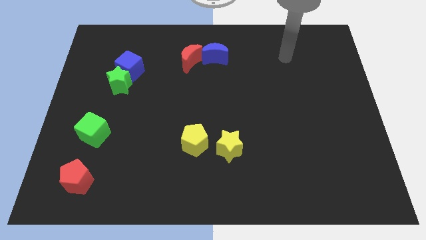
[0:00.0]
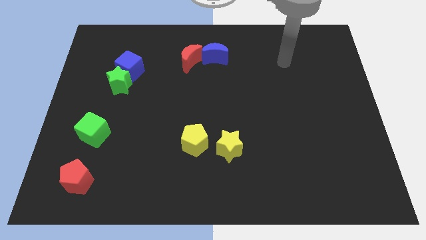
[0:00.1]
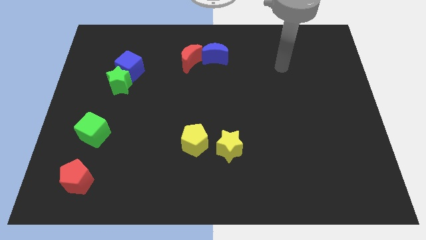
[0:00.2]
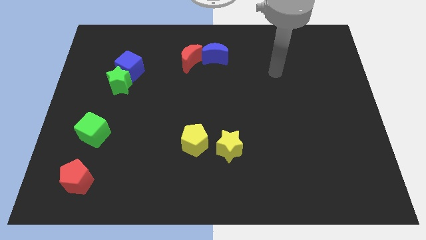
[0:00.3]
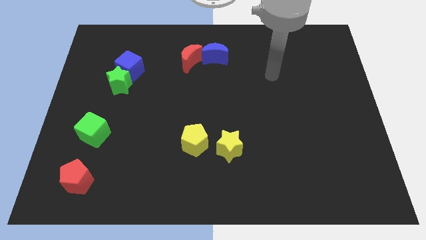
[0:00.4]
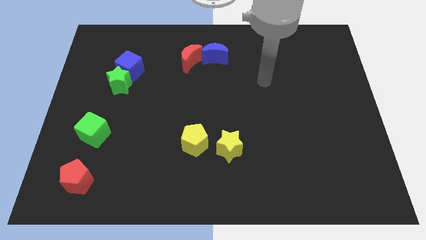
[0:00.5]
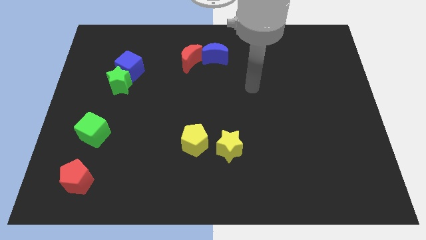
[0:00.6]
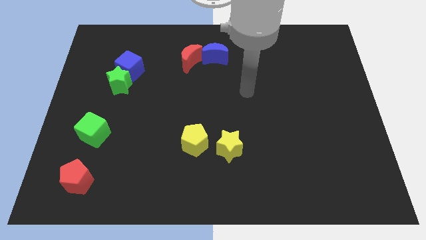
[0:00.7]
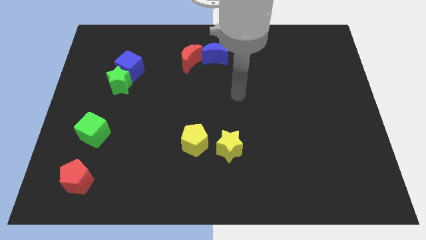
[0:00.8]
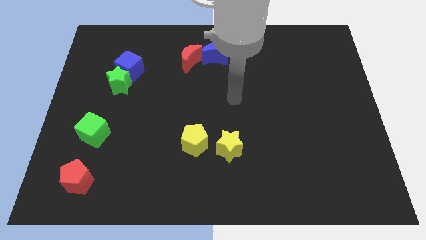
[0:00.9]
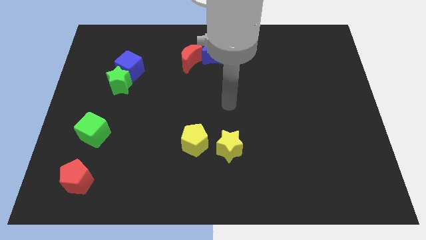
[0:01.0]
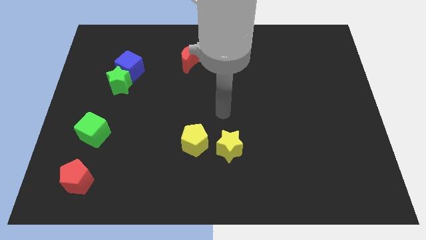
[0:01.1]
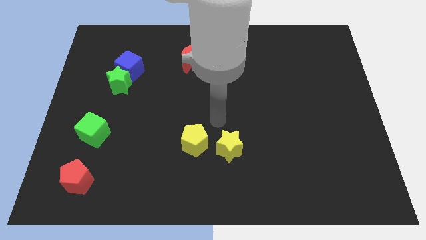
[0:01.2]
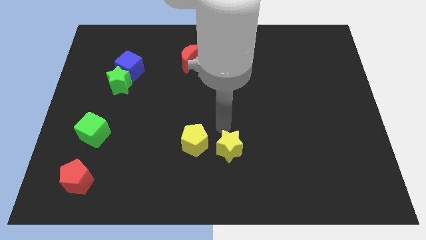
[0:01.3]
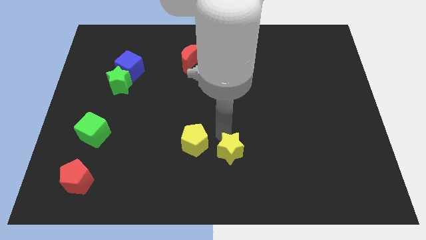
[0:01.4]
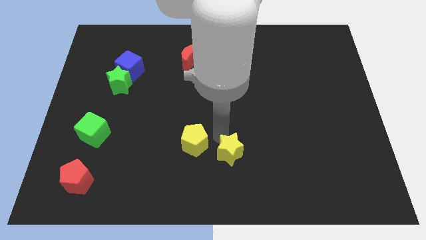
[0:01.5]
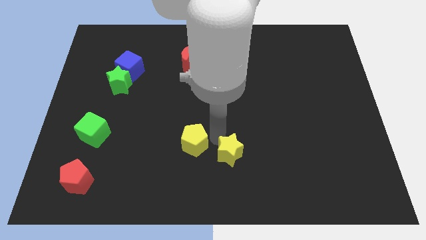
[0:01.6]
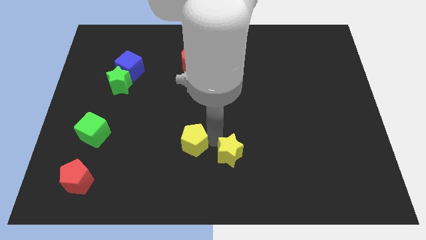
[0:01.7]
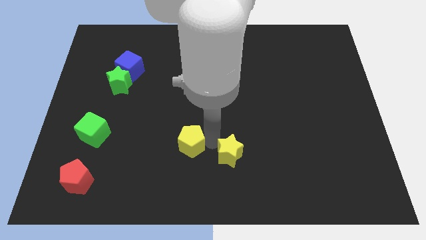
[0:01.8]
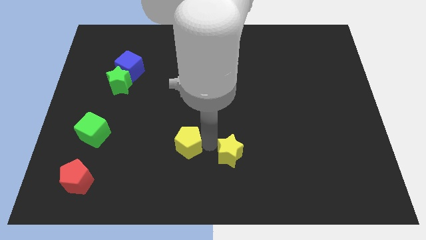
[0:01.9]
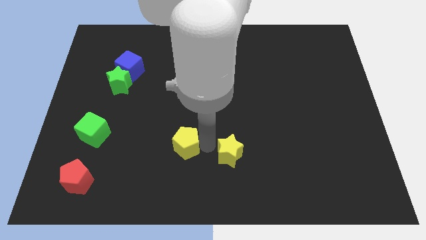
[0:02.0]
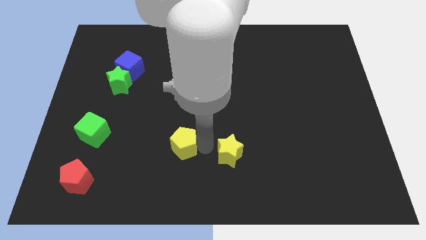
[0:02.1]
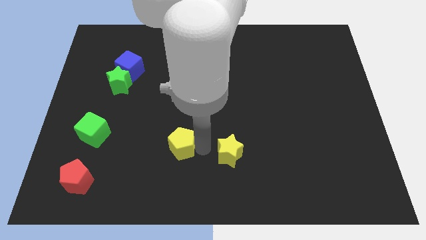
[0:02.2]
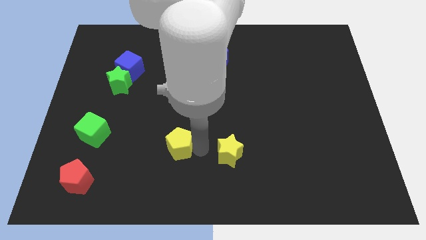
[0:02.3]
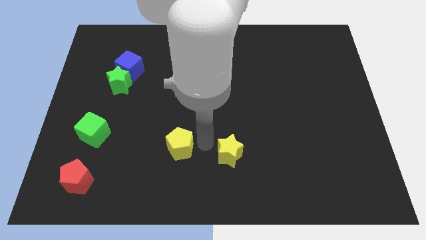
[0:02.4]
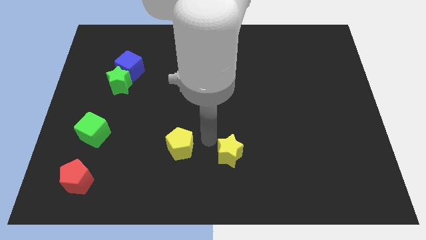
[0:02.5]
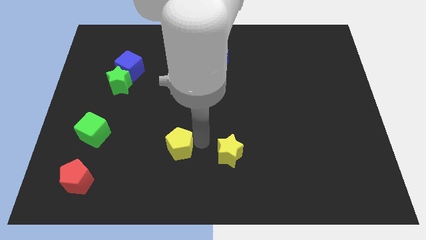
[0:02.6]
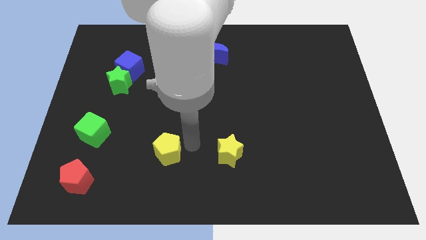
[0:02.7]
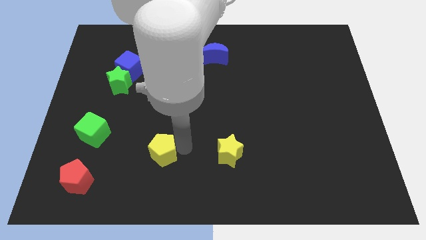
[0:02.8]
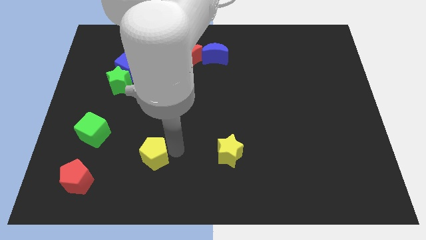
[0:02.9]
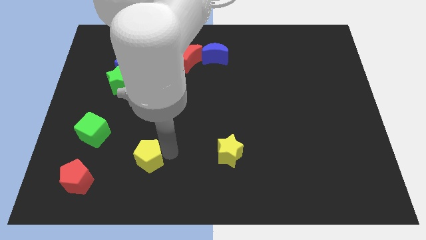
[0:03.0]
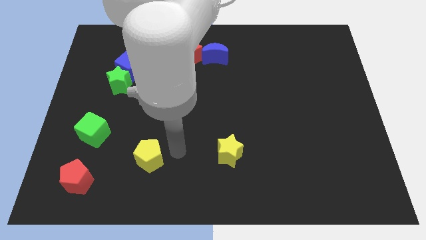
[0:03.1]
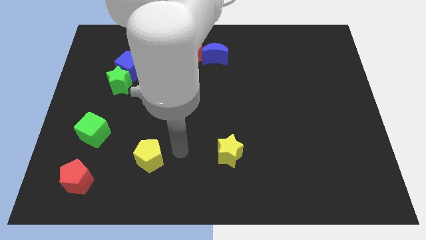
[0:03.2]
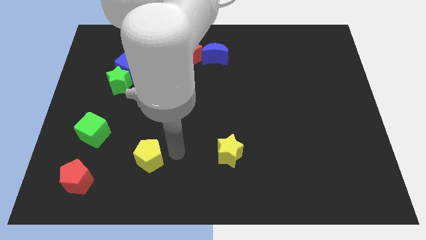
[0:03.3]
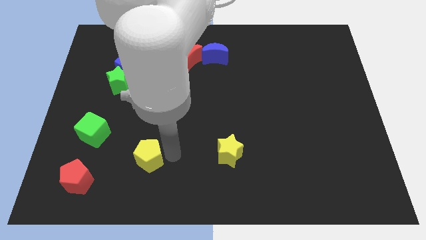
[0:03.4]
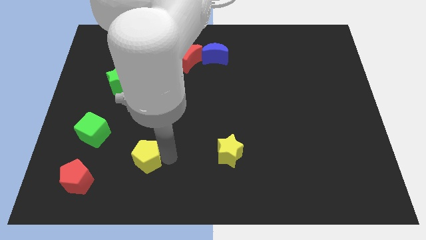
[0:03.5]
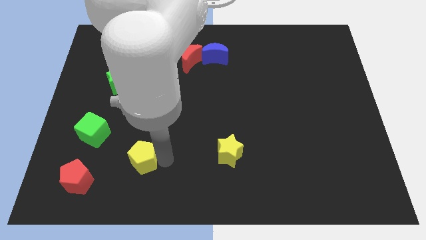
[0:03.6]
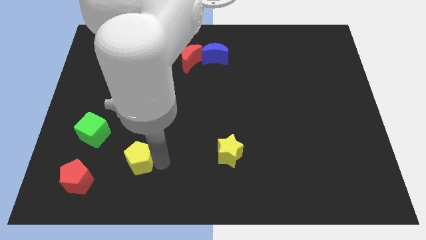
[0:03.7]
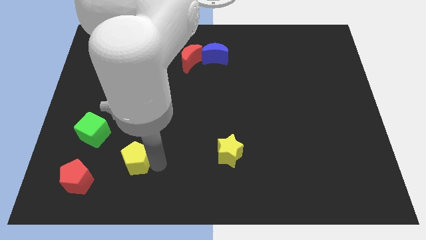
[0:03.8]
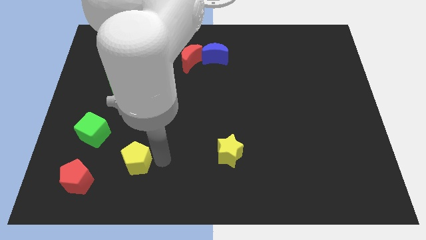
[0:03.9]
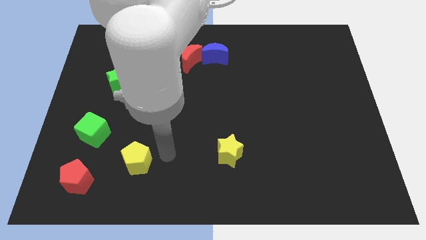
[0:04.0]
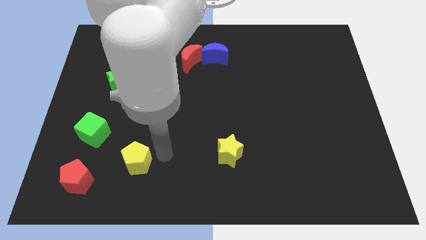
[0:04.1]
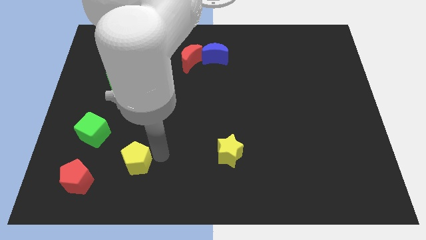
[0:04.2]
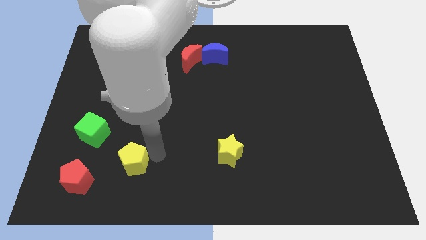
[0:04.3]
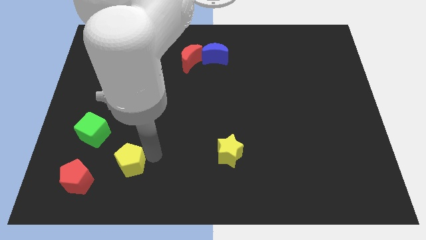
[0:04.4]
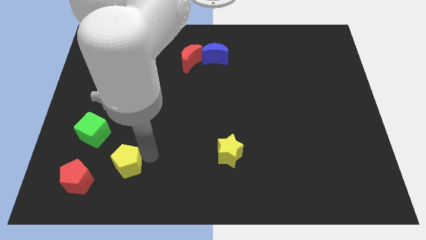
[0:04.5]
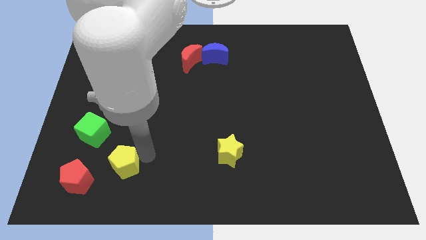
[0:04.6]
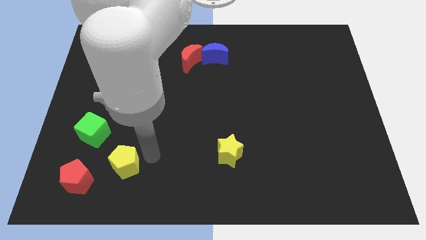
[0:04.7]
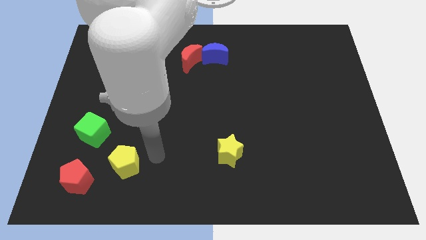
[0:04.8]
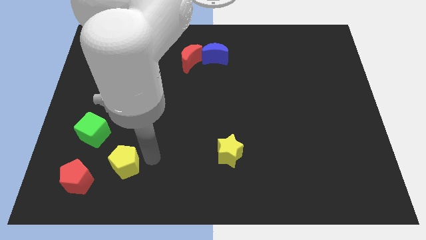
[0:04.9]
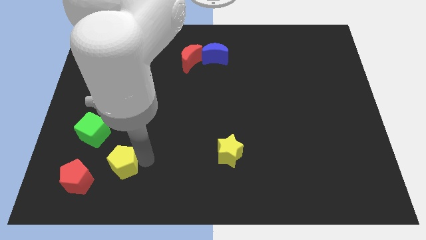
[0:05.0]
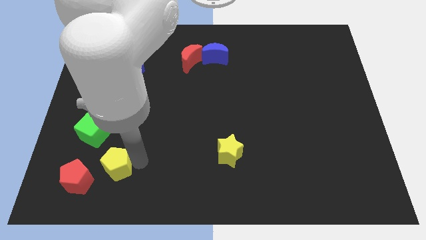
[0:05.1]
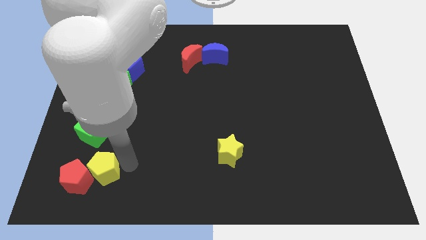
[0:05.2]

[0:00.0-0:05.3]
push the yellow pentagon to the red pentagon

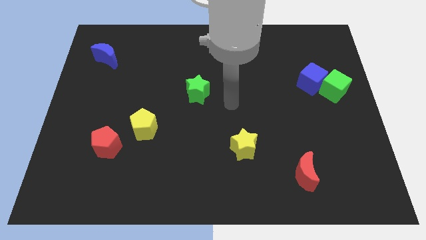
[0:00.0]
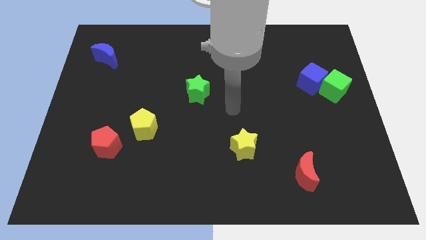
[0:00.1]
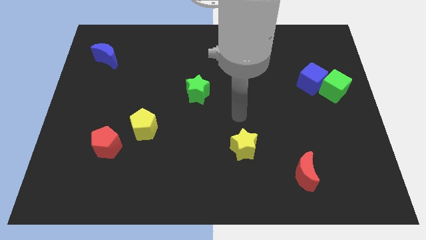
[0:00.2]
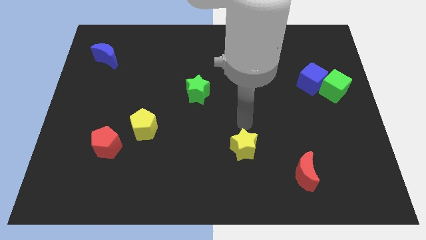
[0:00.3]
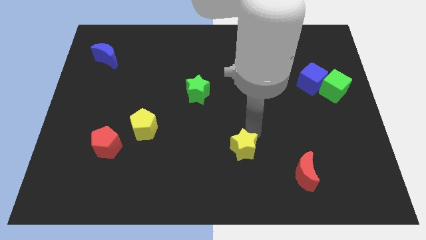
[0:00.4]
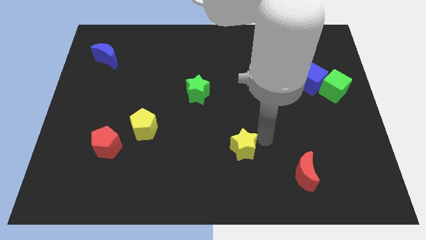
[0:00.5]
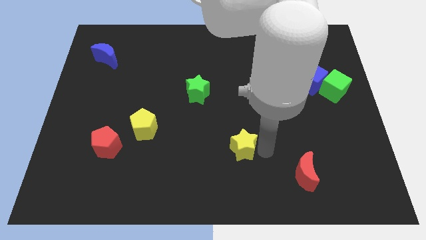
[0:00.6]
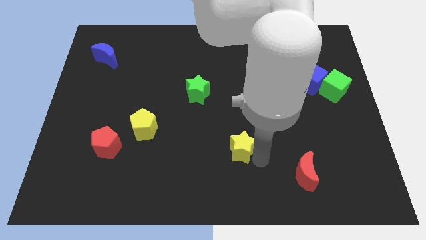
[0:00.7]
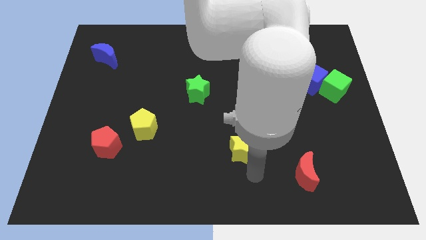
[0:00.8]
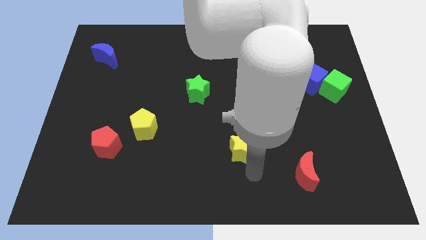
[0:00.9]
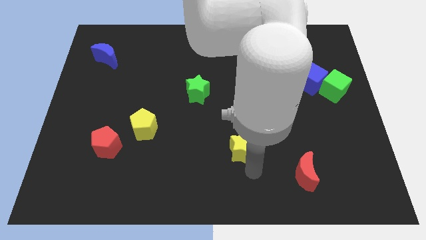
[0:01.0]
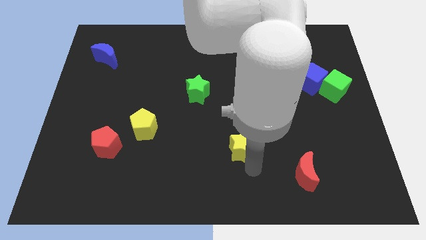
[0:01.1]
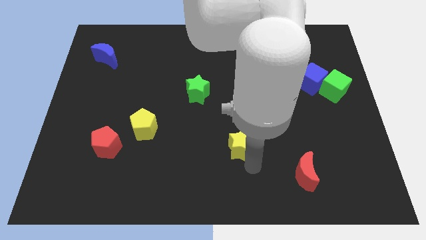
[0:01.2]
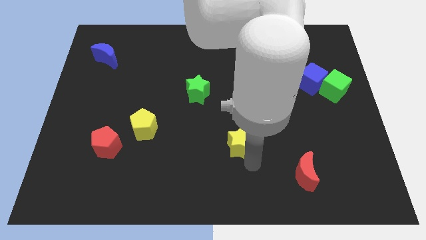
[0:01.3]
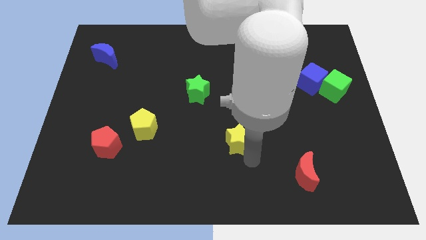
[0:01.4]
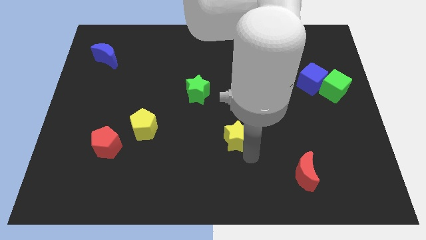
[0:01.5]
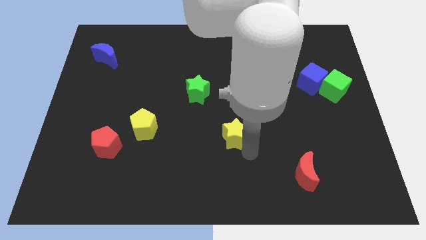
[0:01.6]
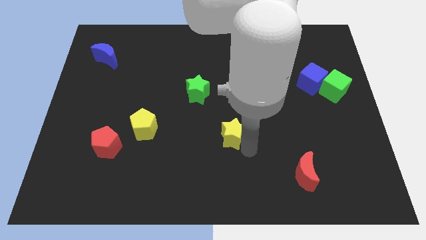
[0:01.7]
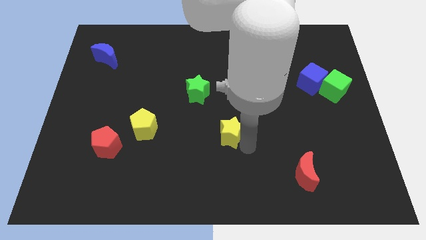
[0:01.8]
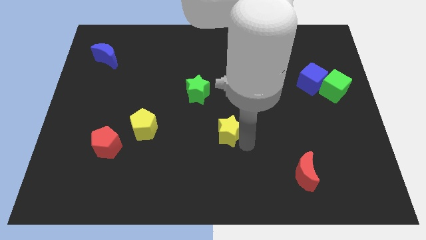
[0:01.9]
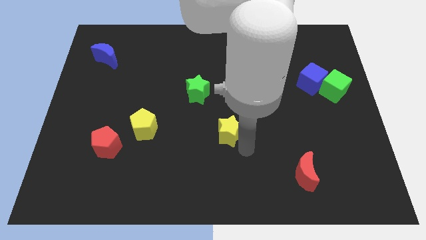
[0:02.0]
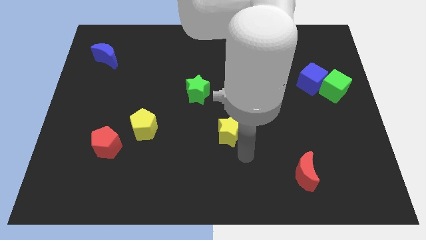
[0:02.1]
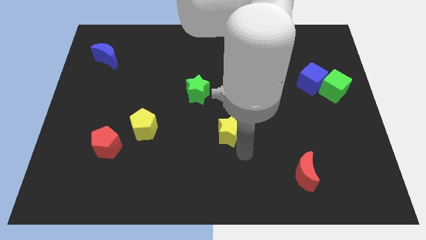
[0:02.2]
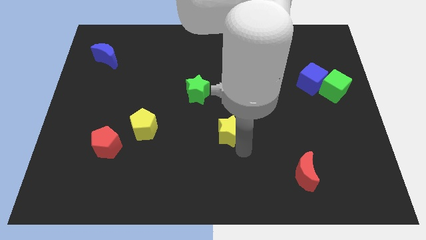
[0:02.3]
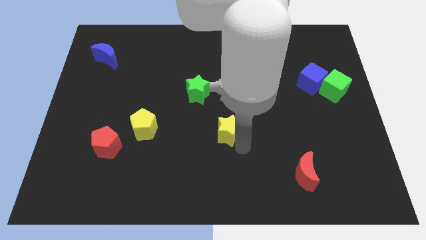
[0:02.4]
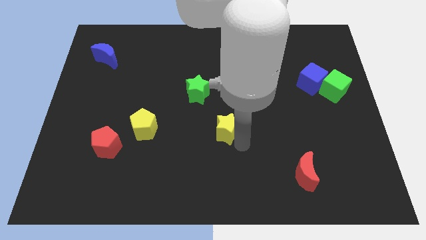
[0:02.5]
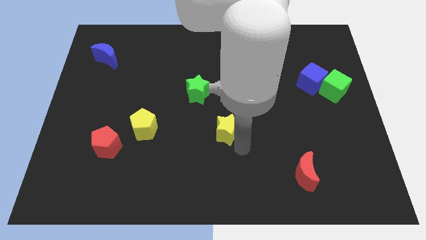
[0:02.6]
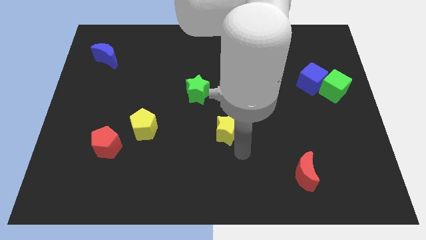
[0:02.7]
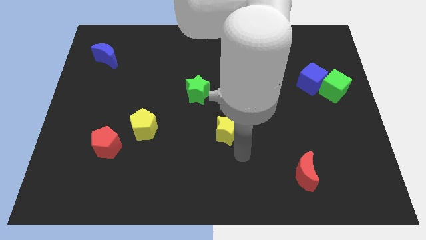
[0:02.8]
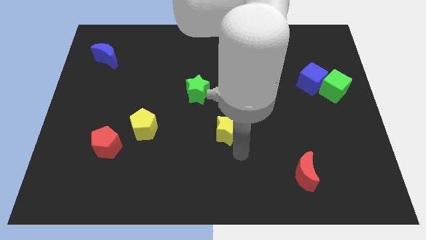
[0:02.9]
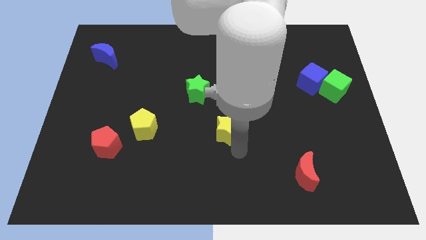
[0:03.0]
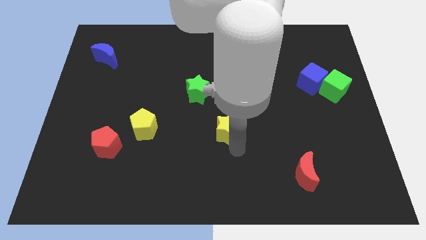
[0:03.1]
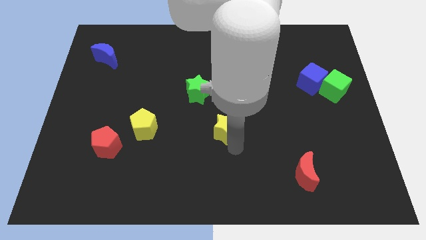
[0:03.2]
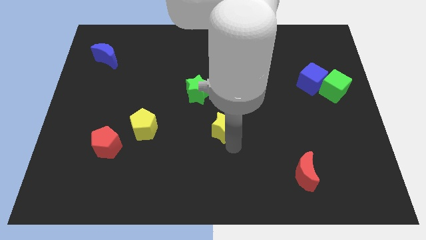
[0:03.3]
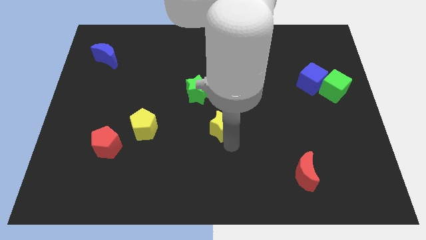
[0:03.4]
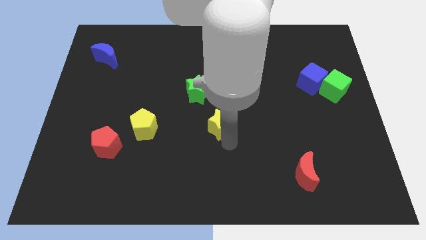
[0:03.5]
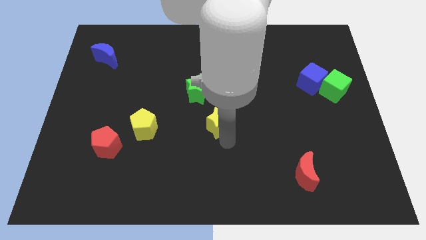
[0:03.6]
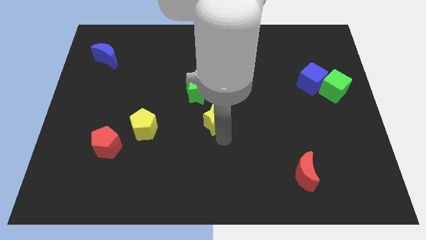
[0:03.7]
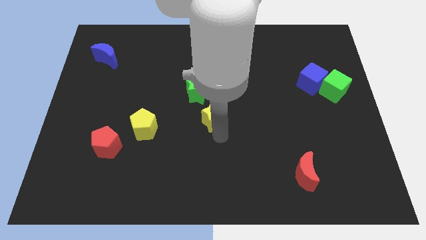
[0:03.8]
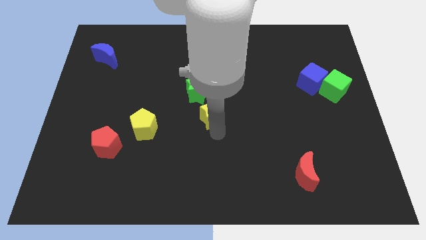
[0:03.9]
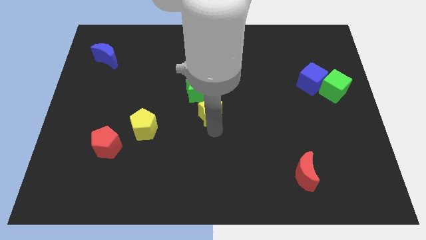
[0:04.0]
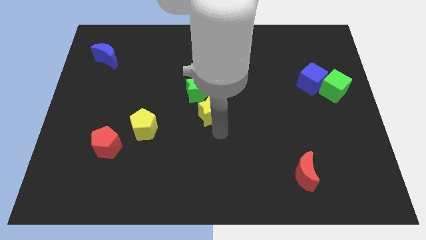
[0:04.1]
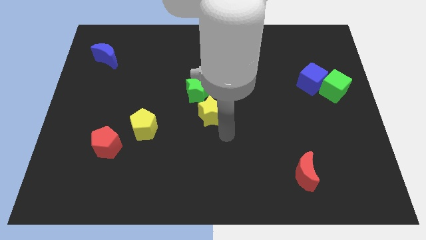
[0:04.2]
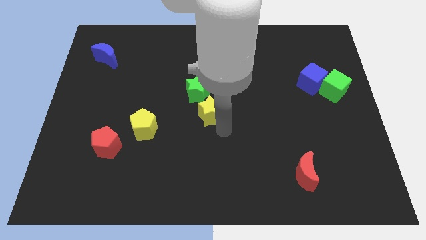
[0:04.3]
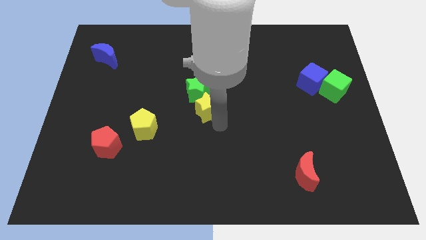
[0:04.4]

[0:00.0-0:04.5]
move the yellow star towards the green star
